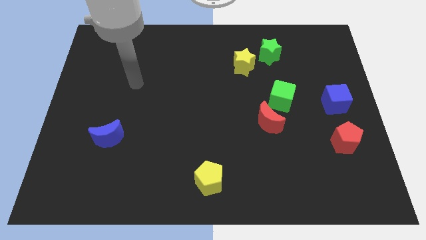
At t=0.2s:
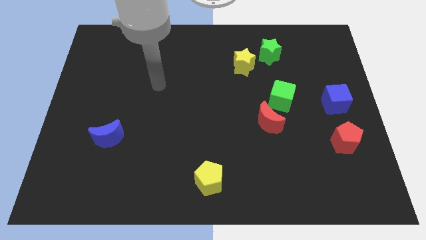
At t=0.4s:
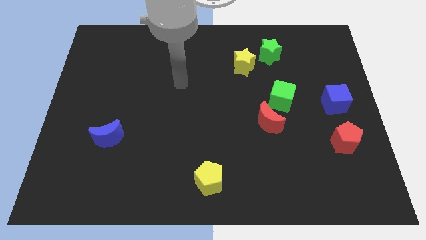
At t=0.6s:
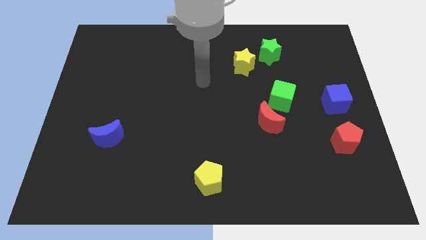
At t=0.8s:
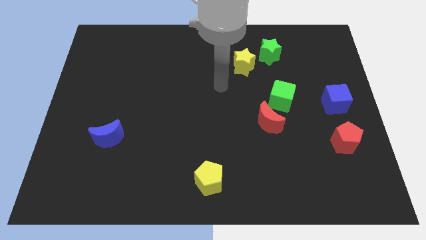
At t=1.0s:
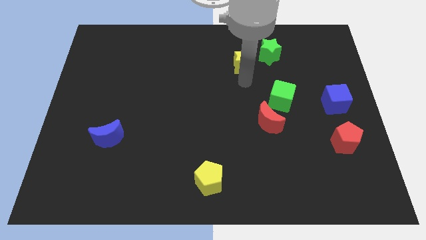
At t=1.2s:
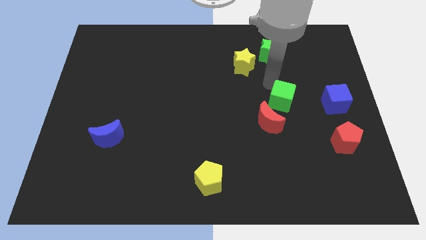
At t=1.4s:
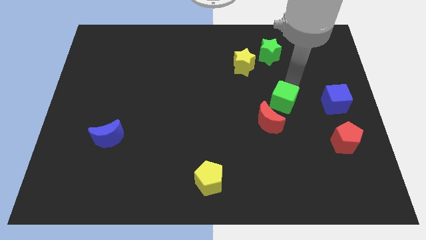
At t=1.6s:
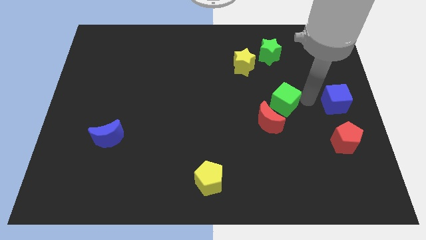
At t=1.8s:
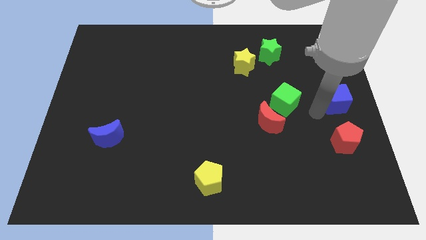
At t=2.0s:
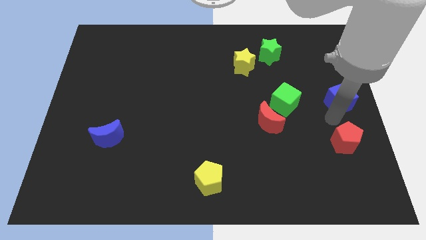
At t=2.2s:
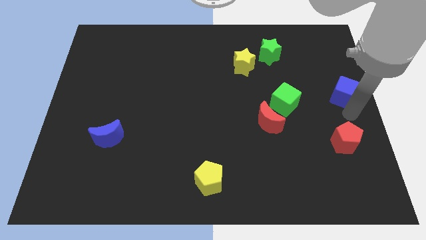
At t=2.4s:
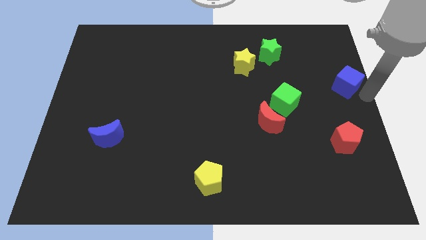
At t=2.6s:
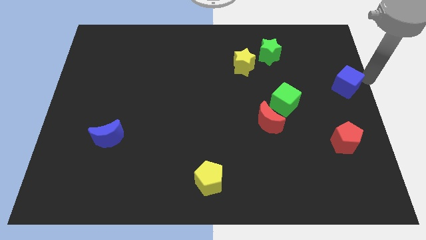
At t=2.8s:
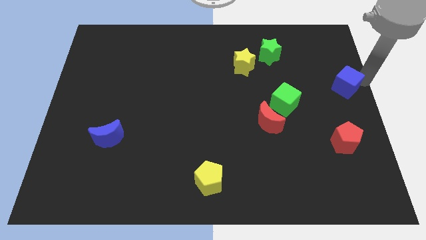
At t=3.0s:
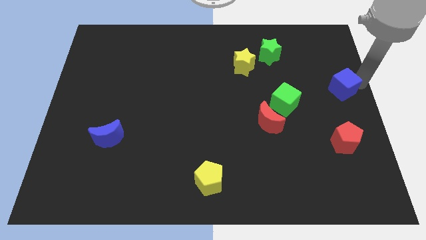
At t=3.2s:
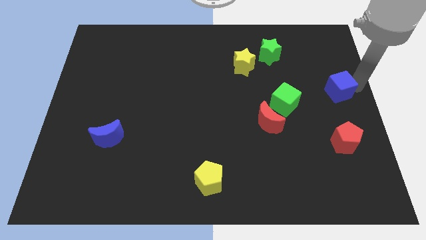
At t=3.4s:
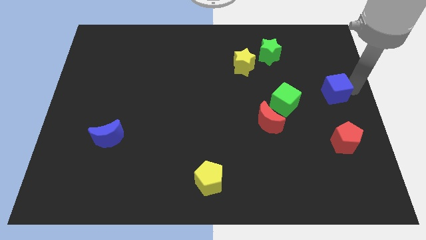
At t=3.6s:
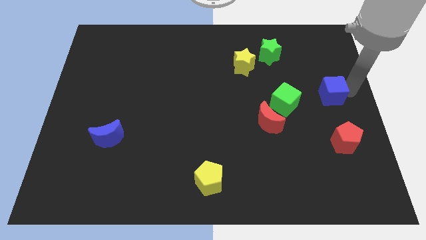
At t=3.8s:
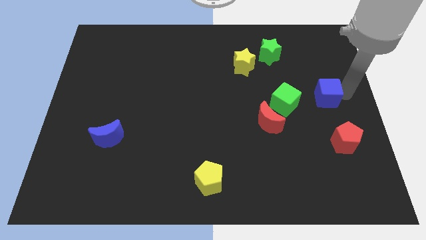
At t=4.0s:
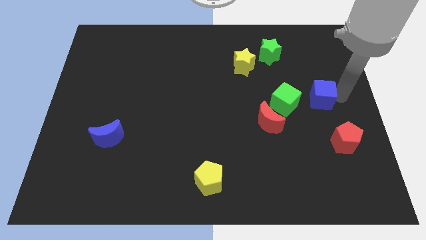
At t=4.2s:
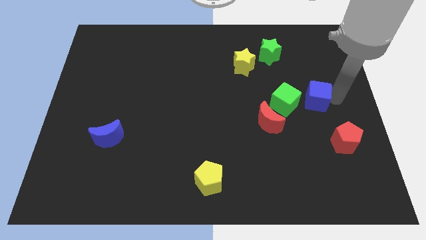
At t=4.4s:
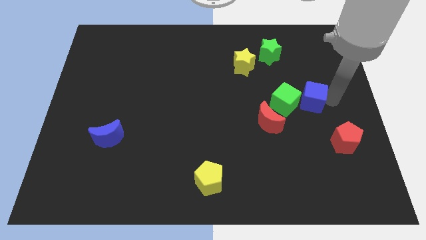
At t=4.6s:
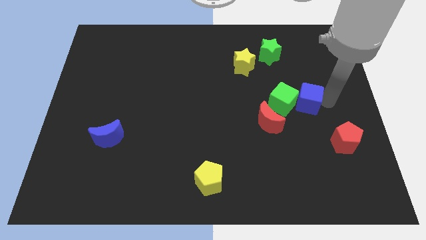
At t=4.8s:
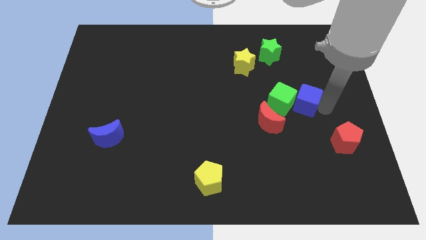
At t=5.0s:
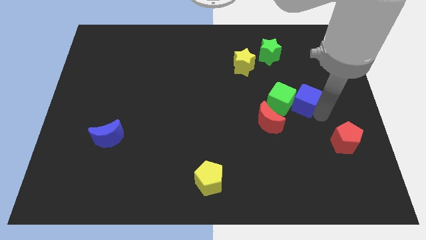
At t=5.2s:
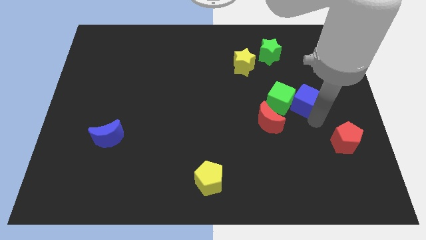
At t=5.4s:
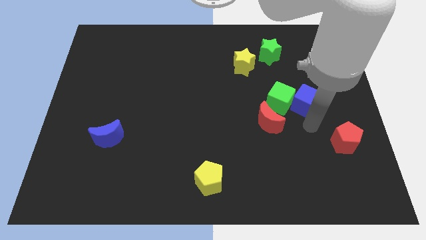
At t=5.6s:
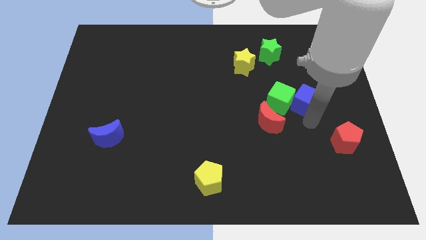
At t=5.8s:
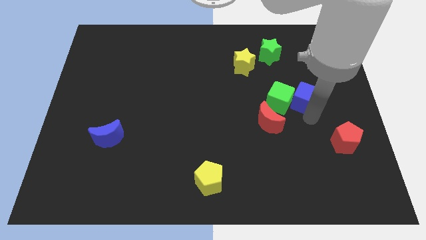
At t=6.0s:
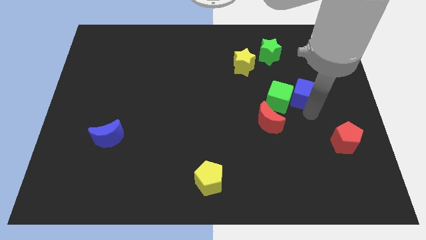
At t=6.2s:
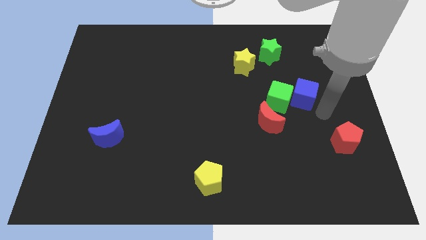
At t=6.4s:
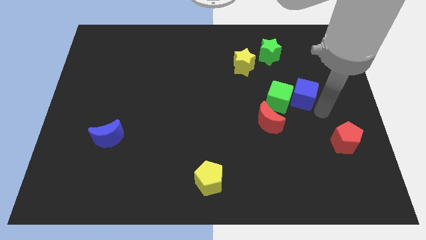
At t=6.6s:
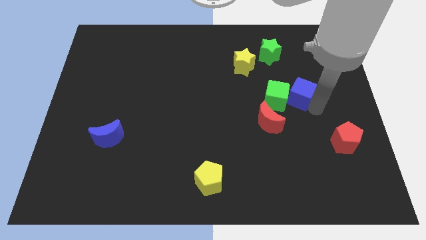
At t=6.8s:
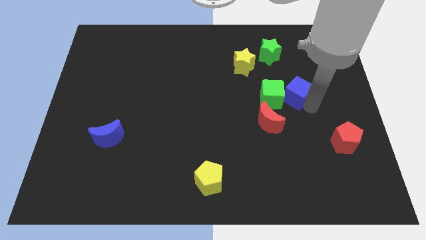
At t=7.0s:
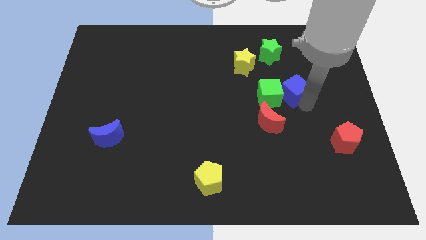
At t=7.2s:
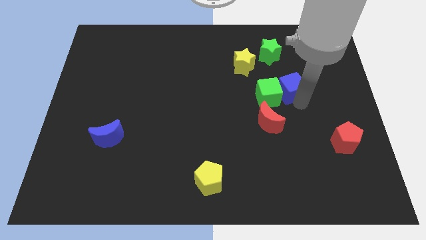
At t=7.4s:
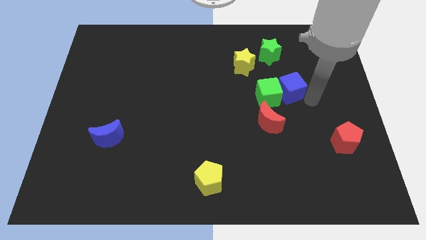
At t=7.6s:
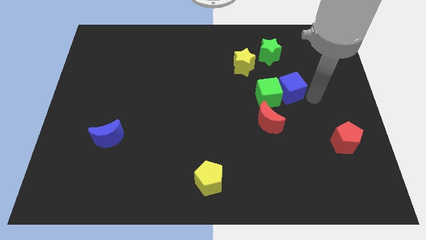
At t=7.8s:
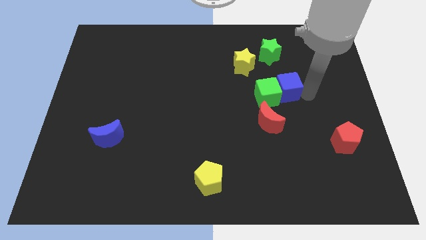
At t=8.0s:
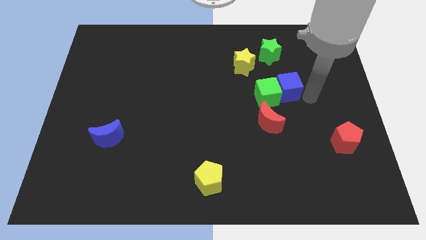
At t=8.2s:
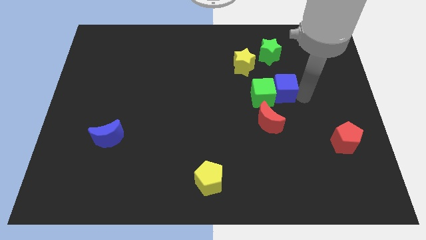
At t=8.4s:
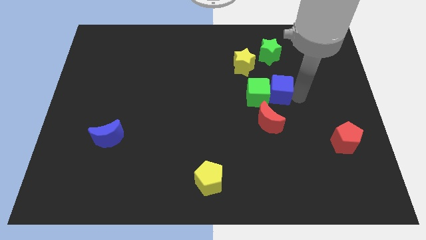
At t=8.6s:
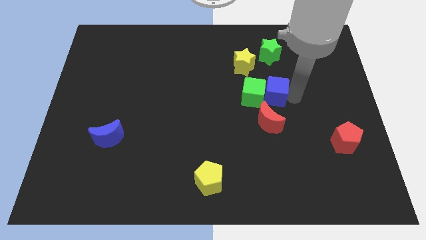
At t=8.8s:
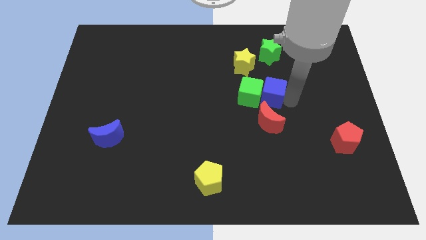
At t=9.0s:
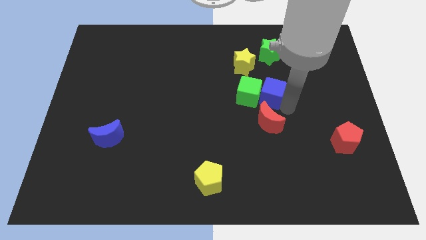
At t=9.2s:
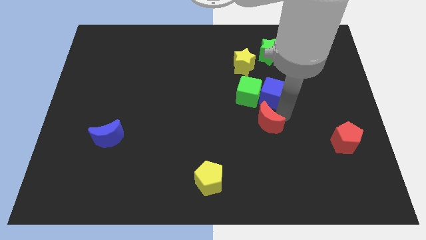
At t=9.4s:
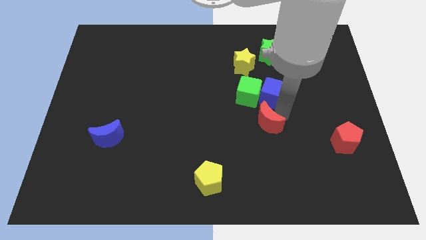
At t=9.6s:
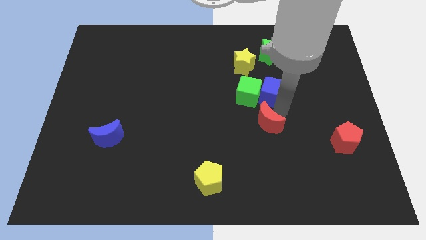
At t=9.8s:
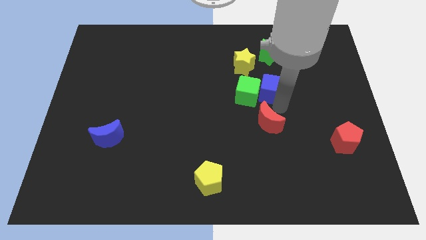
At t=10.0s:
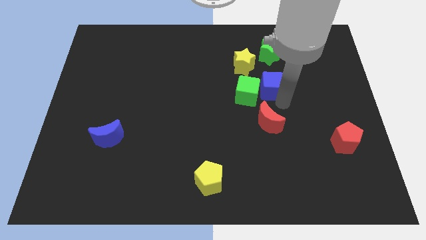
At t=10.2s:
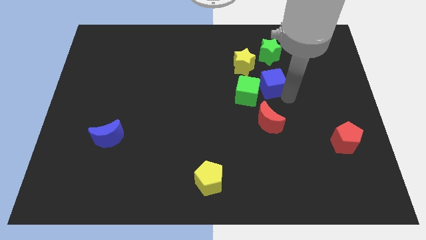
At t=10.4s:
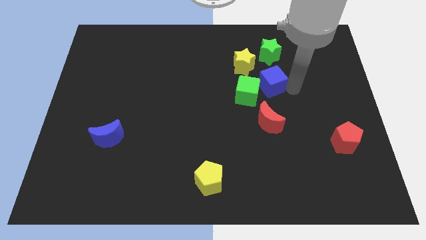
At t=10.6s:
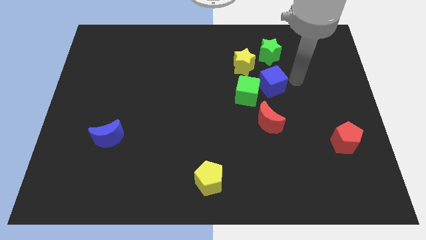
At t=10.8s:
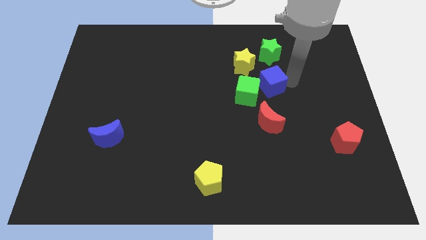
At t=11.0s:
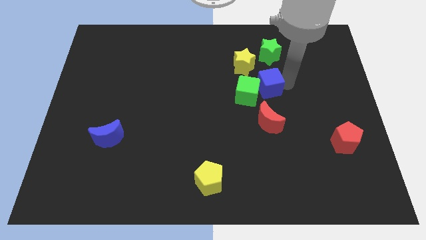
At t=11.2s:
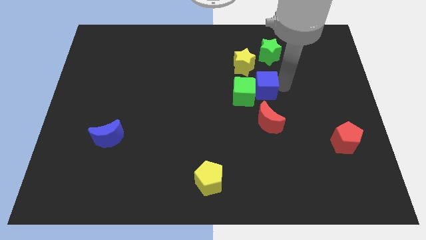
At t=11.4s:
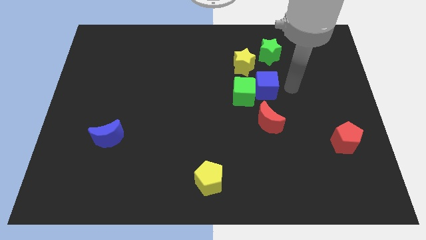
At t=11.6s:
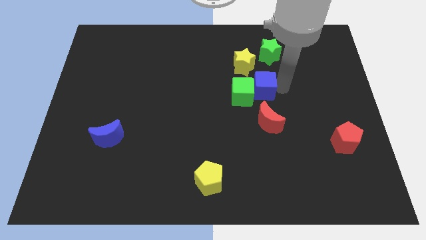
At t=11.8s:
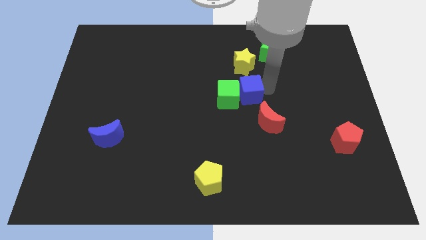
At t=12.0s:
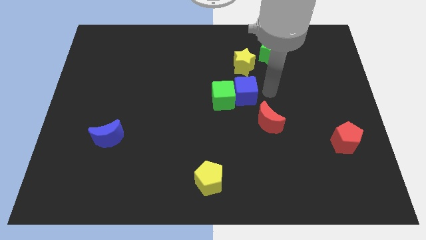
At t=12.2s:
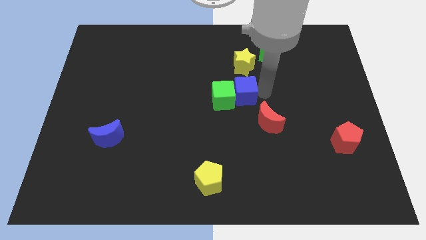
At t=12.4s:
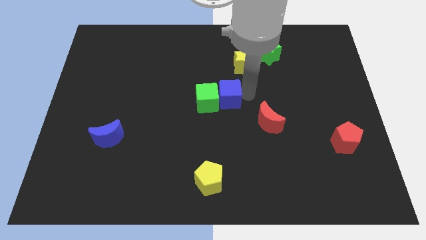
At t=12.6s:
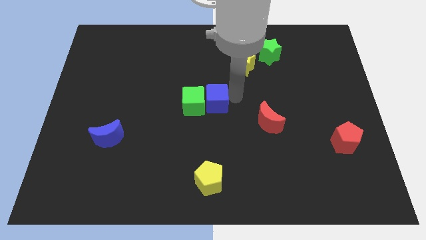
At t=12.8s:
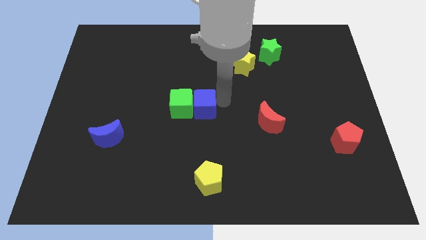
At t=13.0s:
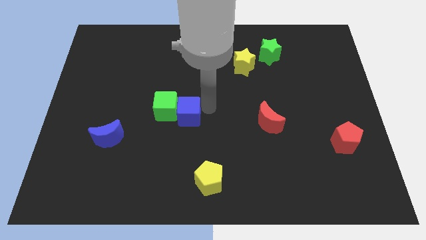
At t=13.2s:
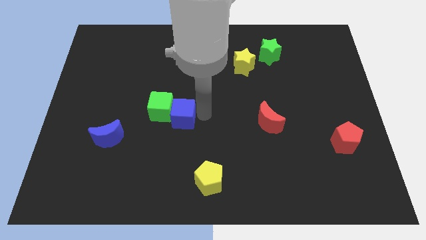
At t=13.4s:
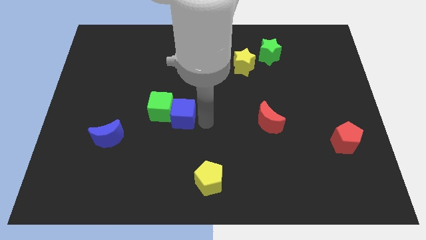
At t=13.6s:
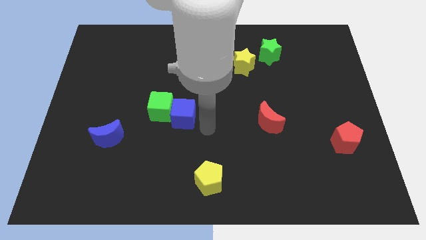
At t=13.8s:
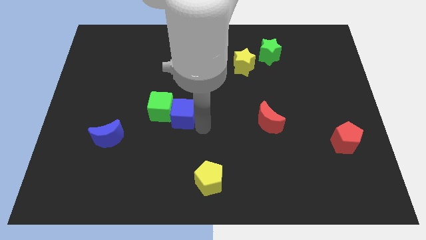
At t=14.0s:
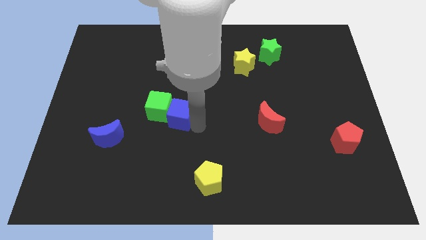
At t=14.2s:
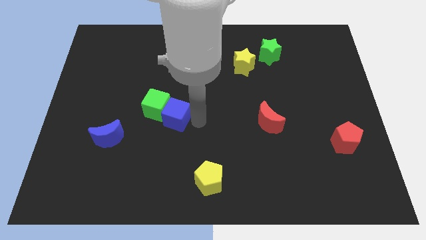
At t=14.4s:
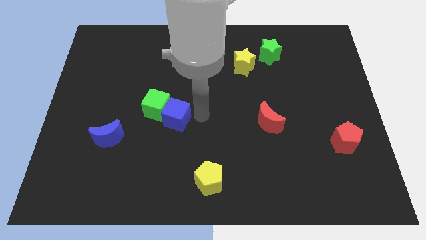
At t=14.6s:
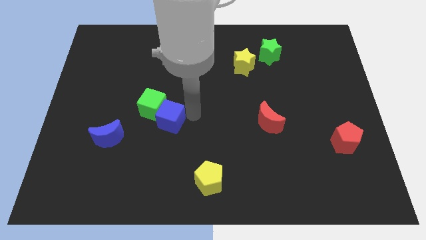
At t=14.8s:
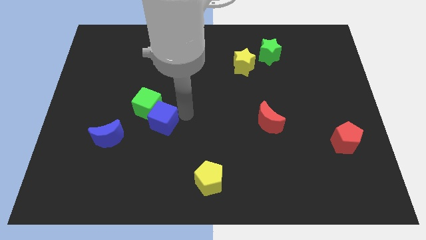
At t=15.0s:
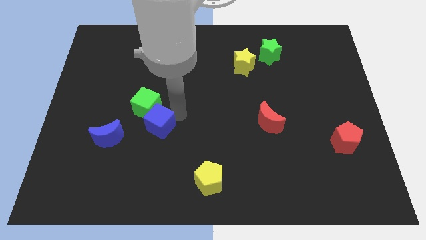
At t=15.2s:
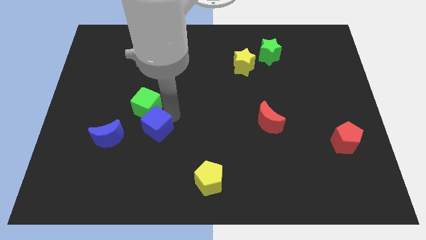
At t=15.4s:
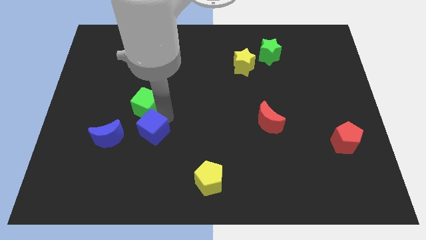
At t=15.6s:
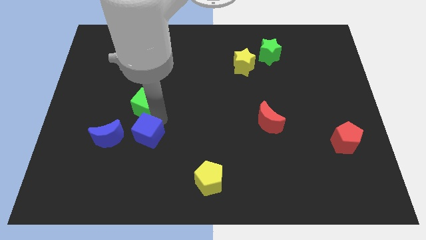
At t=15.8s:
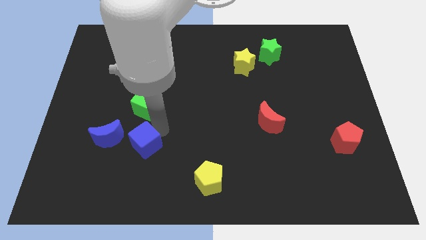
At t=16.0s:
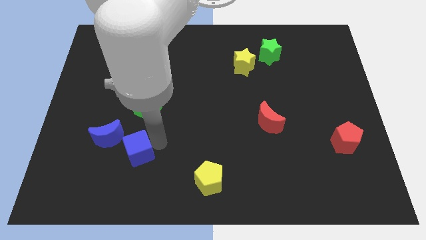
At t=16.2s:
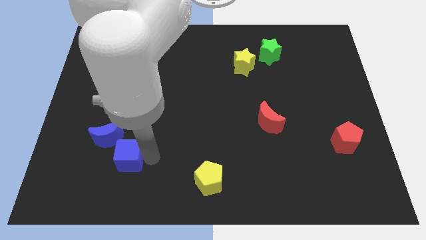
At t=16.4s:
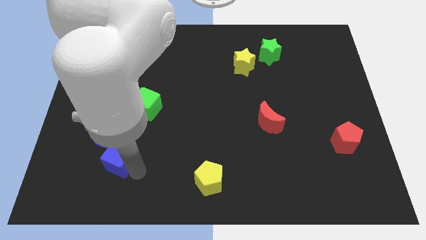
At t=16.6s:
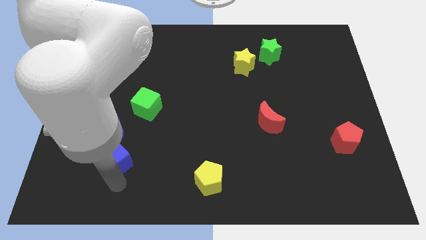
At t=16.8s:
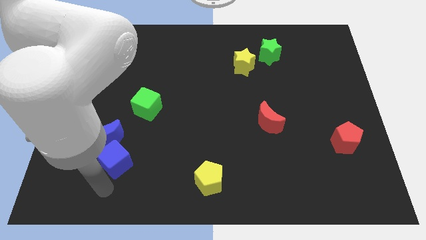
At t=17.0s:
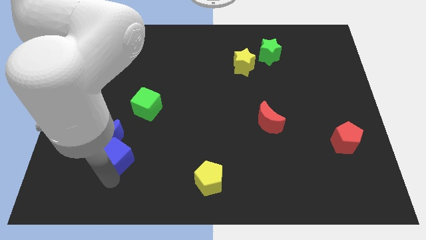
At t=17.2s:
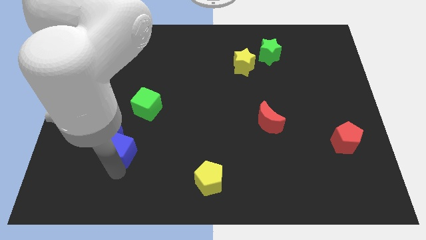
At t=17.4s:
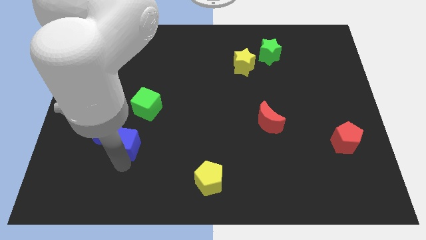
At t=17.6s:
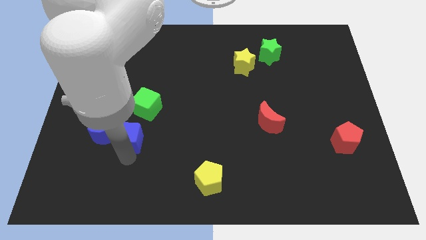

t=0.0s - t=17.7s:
move the blue cube to the top right of the blue moon
